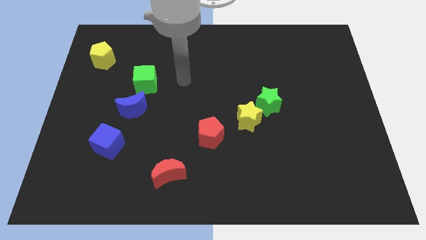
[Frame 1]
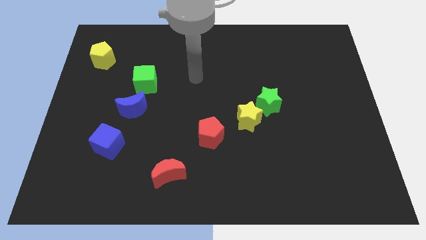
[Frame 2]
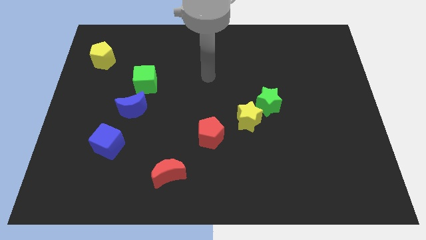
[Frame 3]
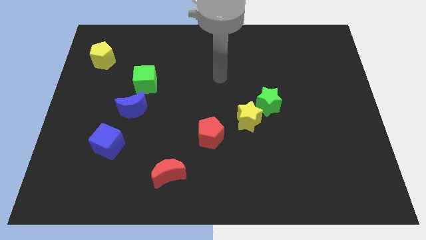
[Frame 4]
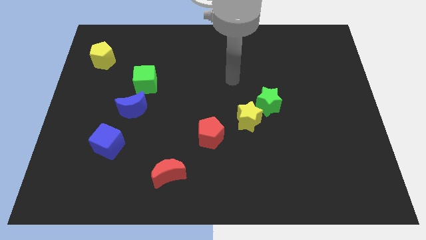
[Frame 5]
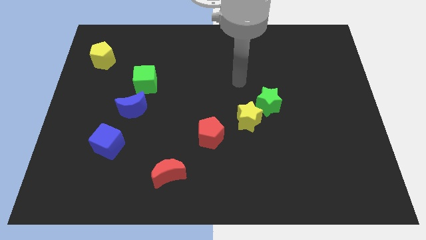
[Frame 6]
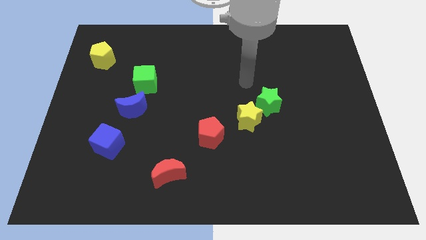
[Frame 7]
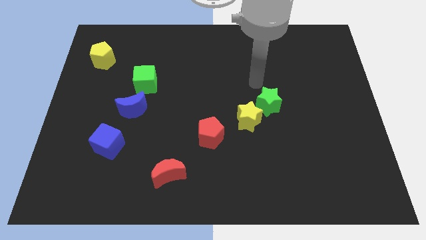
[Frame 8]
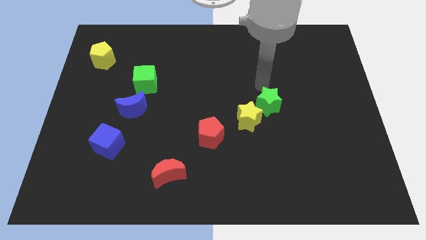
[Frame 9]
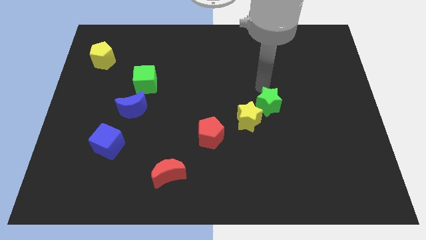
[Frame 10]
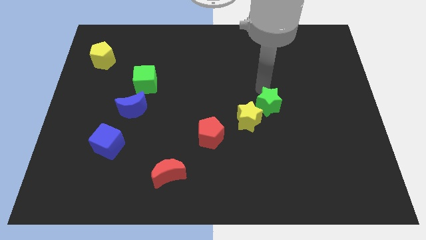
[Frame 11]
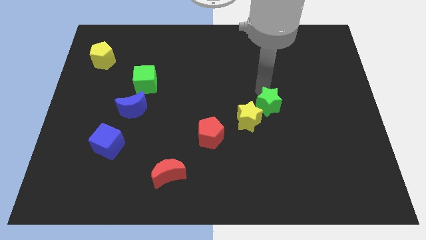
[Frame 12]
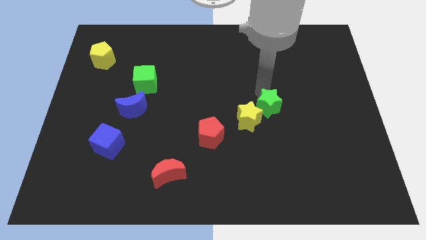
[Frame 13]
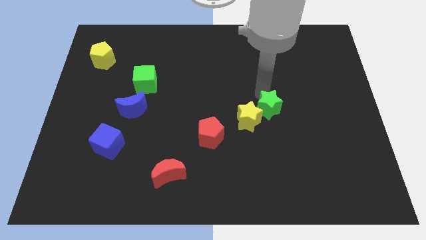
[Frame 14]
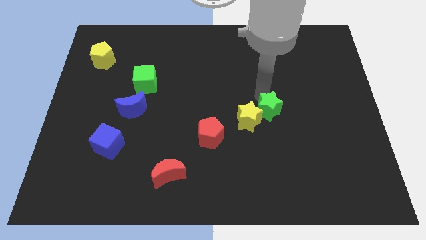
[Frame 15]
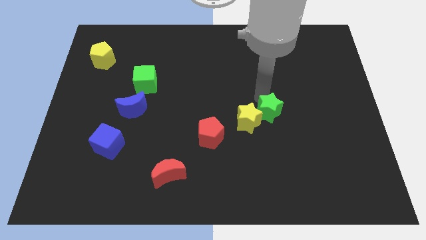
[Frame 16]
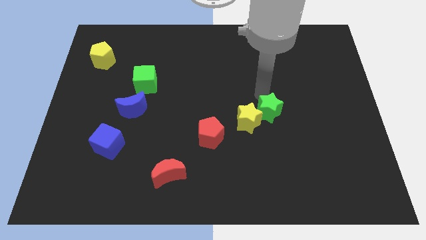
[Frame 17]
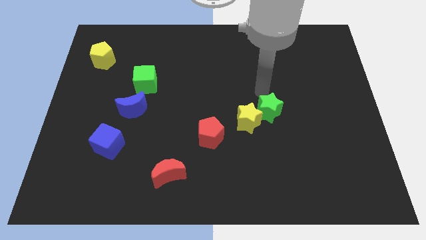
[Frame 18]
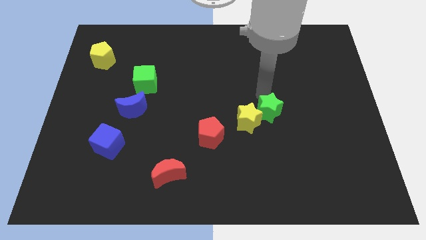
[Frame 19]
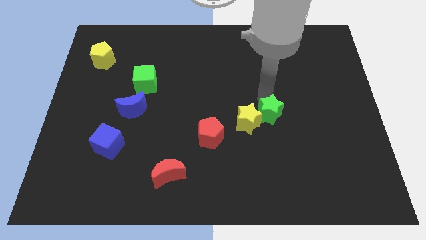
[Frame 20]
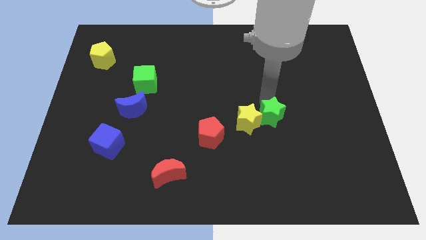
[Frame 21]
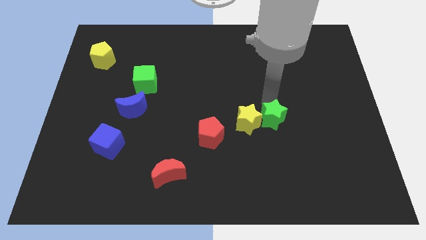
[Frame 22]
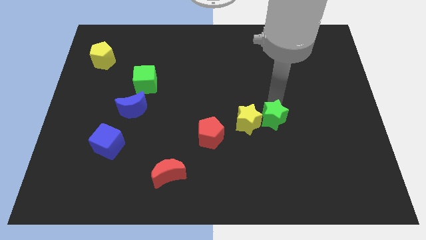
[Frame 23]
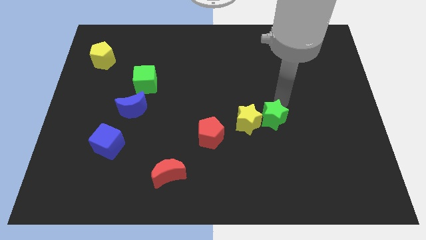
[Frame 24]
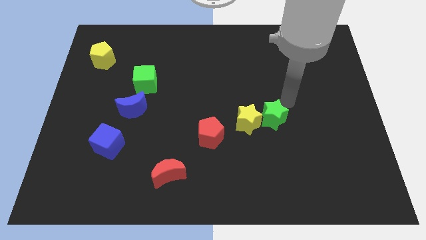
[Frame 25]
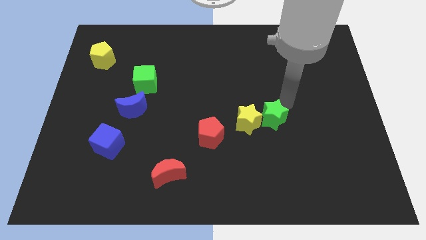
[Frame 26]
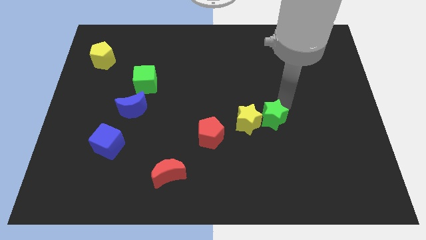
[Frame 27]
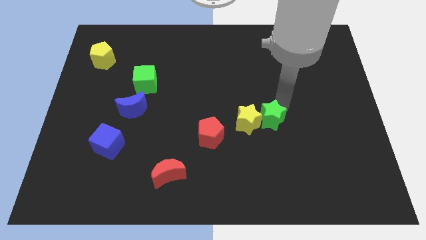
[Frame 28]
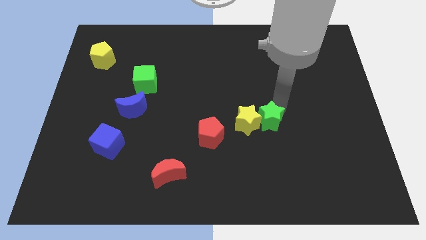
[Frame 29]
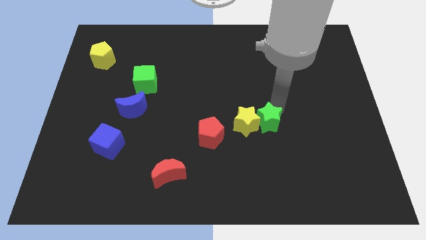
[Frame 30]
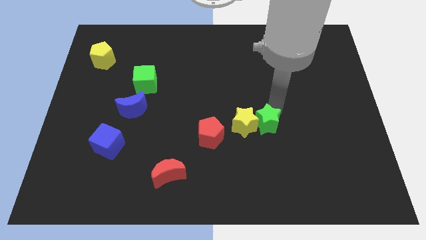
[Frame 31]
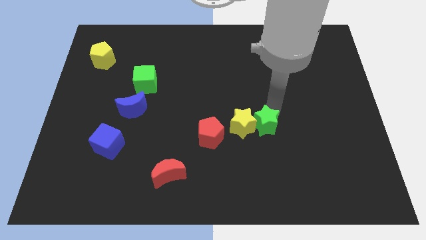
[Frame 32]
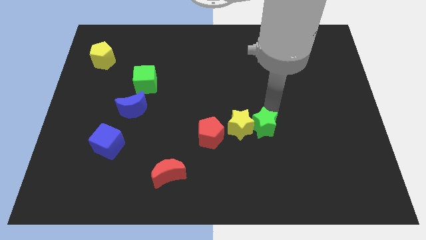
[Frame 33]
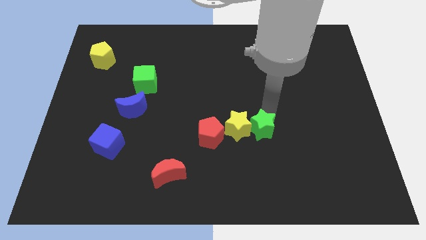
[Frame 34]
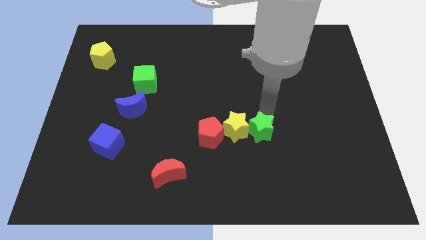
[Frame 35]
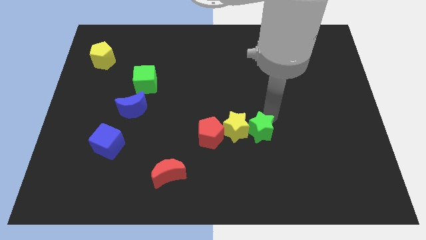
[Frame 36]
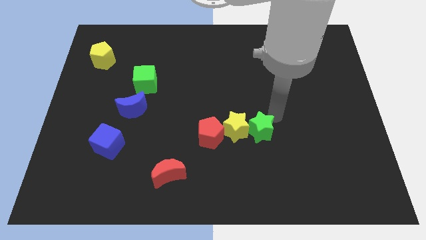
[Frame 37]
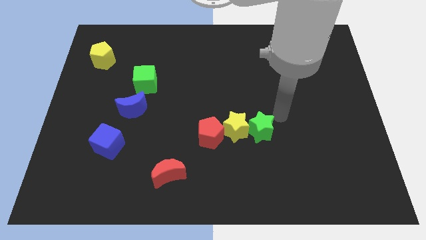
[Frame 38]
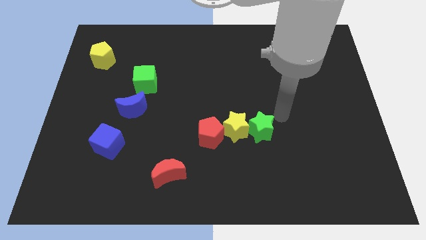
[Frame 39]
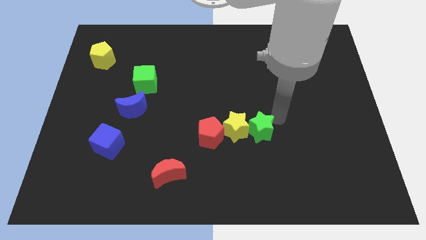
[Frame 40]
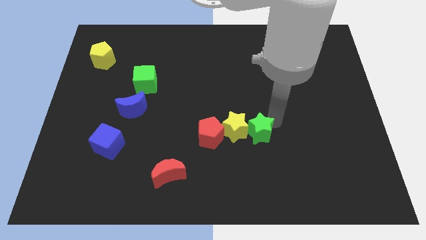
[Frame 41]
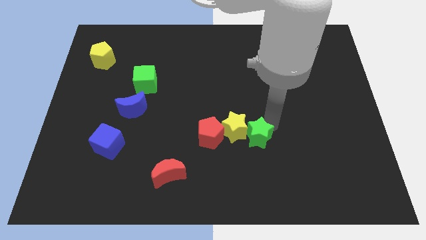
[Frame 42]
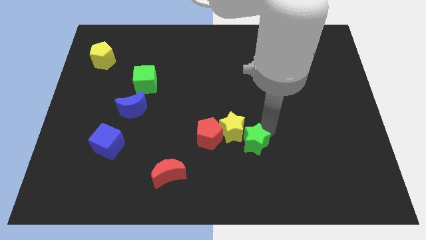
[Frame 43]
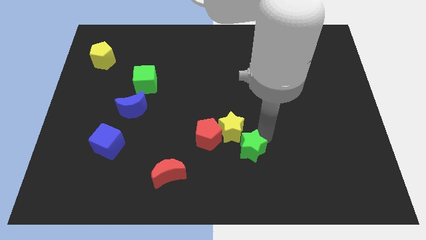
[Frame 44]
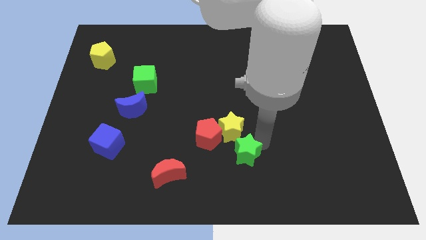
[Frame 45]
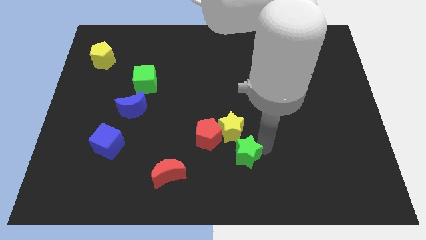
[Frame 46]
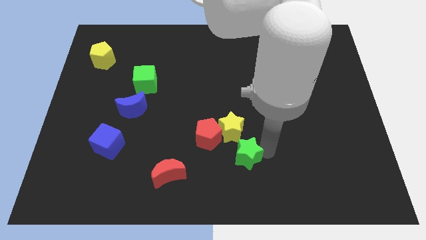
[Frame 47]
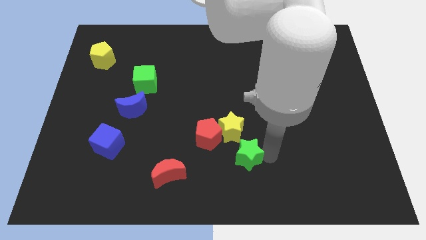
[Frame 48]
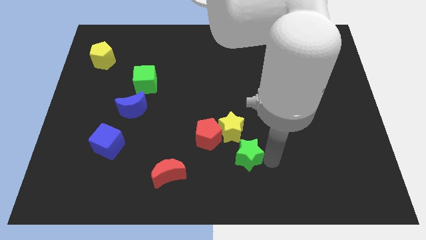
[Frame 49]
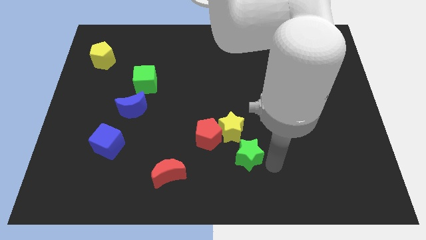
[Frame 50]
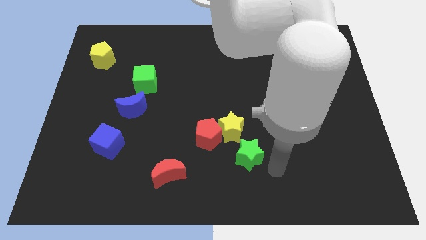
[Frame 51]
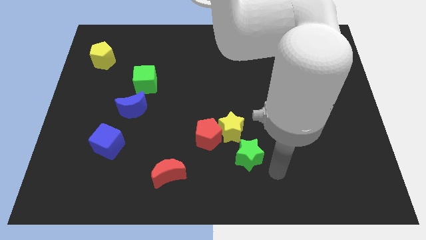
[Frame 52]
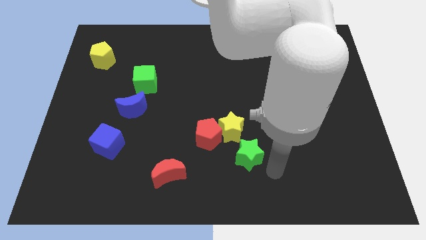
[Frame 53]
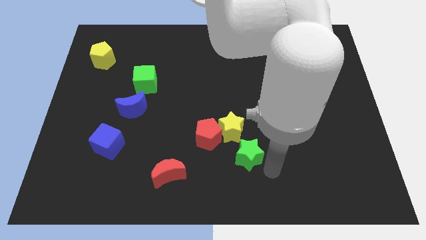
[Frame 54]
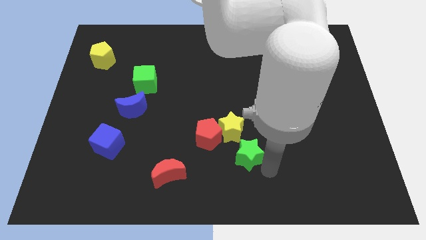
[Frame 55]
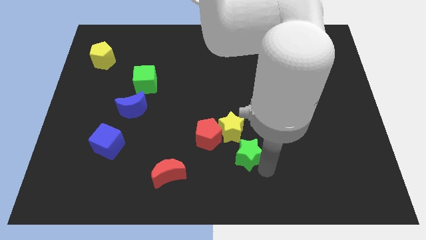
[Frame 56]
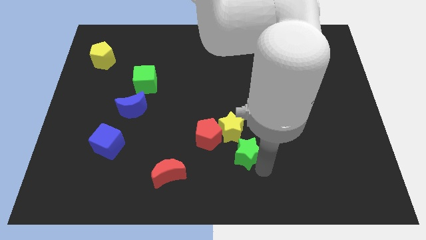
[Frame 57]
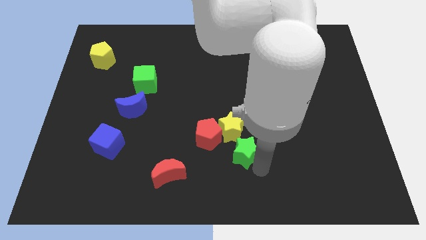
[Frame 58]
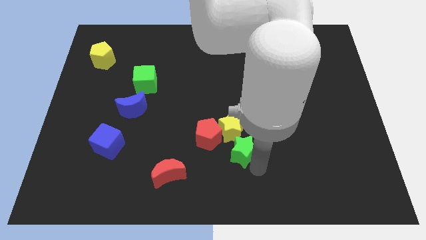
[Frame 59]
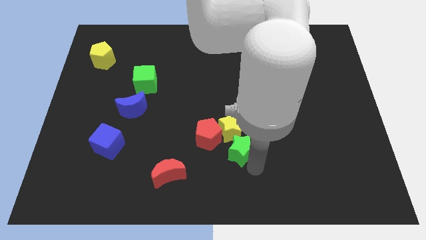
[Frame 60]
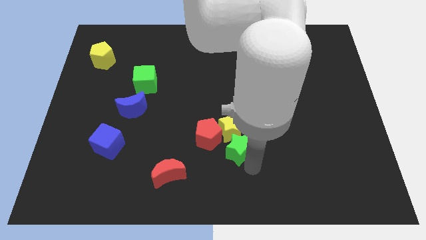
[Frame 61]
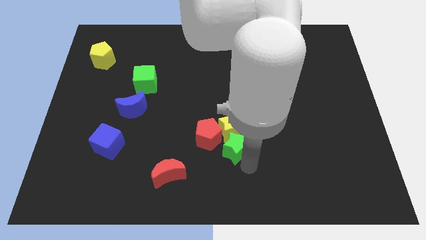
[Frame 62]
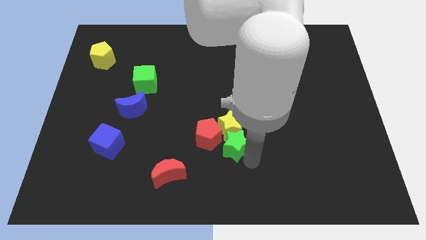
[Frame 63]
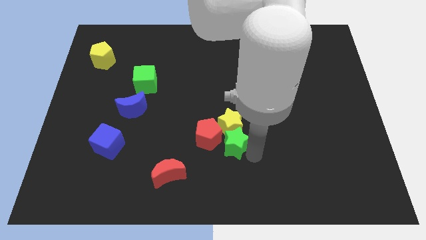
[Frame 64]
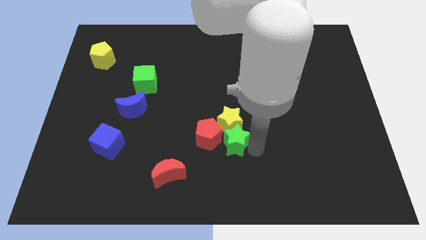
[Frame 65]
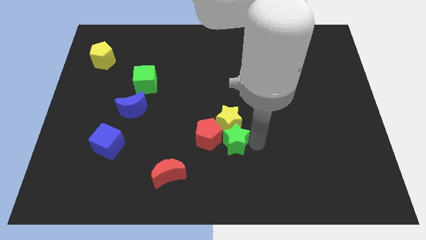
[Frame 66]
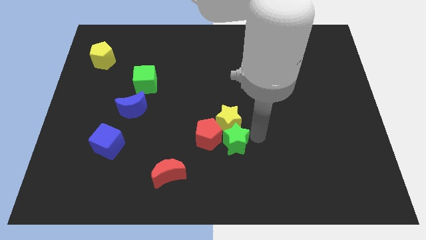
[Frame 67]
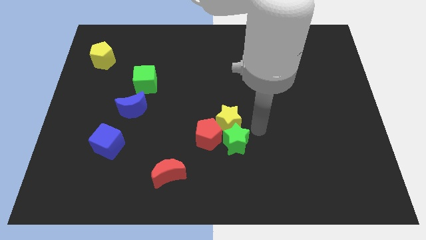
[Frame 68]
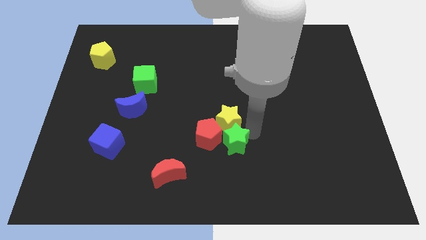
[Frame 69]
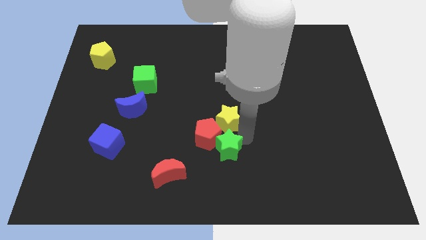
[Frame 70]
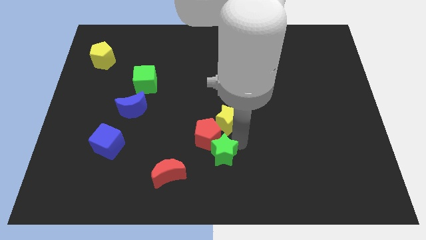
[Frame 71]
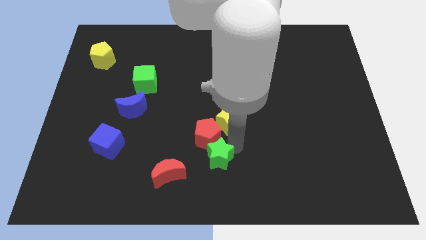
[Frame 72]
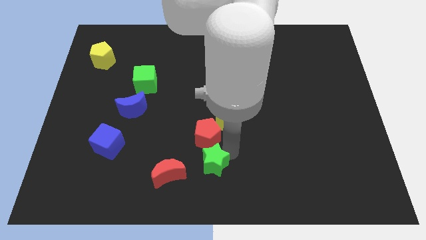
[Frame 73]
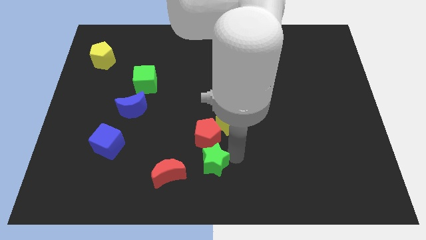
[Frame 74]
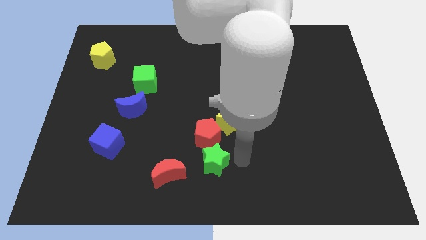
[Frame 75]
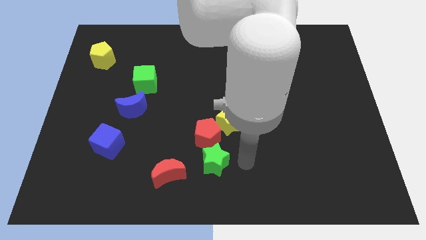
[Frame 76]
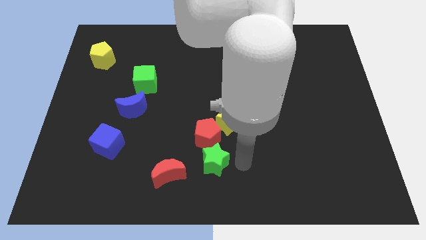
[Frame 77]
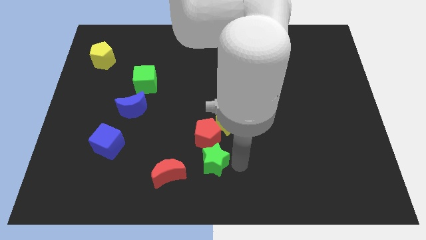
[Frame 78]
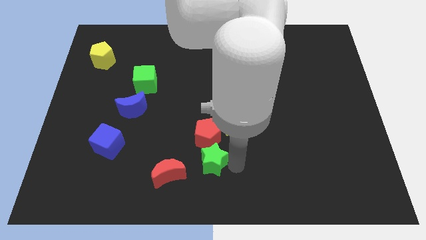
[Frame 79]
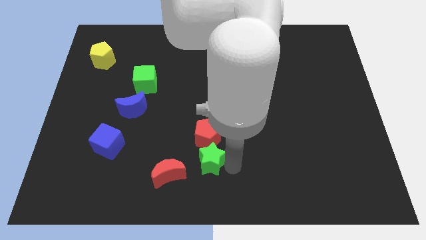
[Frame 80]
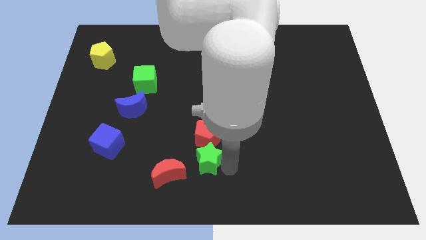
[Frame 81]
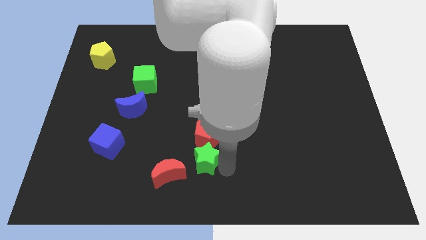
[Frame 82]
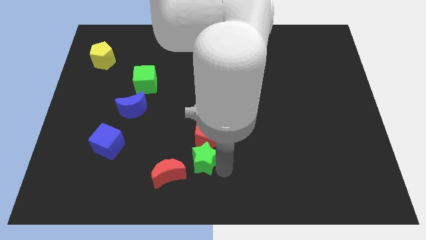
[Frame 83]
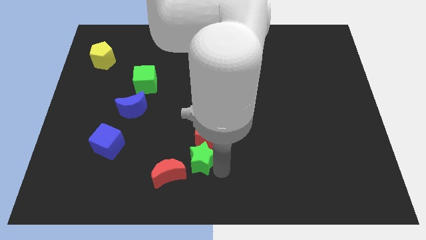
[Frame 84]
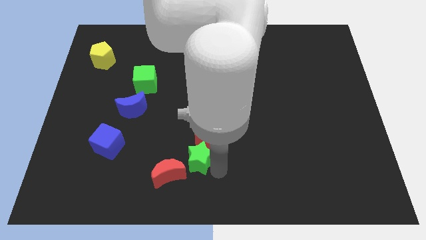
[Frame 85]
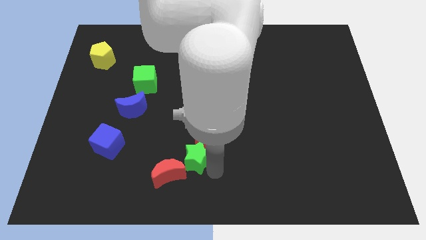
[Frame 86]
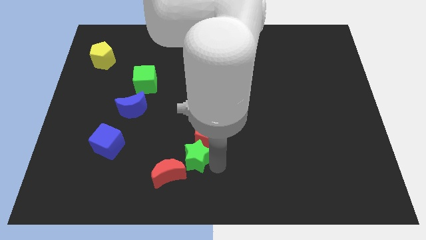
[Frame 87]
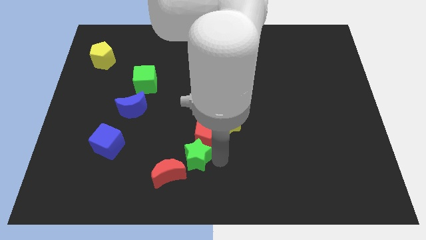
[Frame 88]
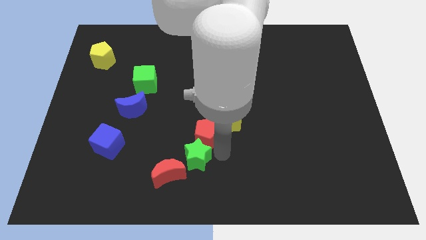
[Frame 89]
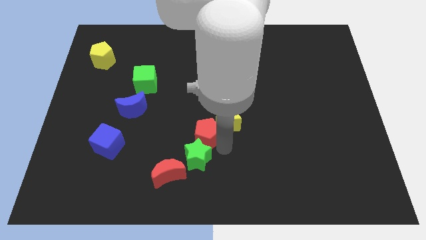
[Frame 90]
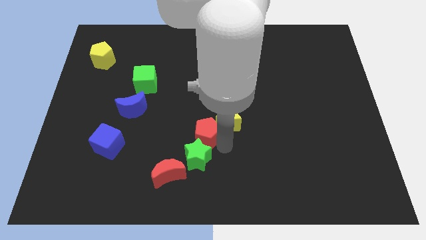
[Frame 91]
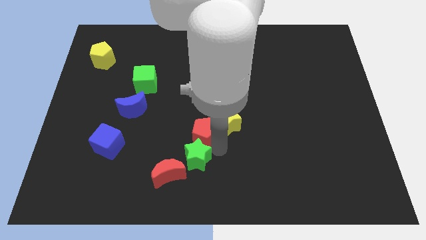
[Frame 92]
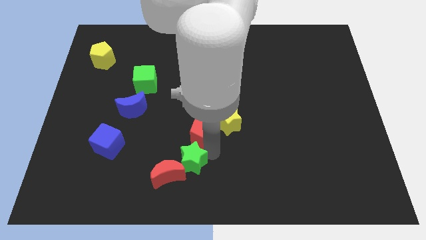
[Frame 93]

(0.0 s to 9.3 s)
push the green star to the red moon
